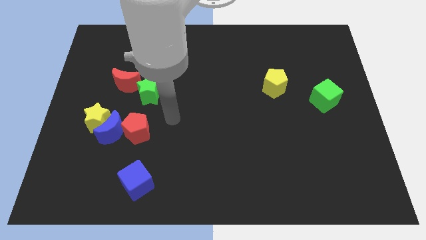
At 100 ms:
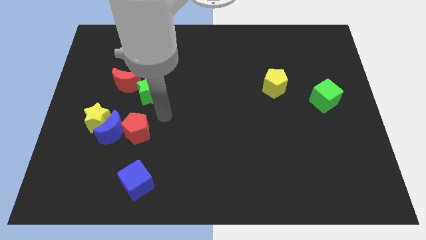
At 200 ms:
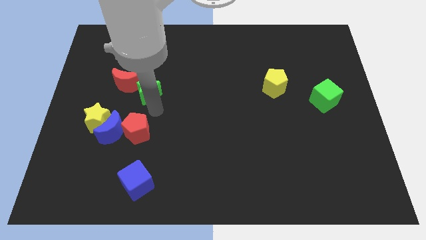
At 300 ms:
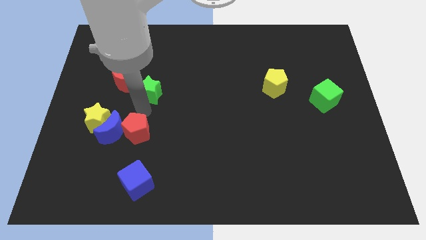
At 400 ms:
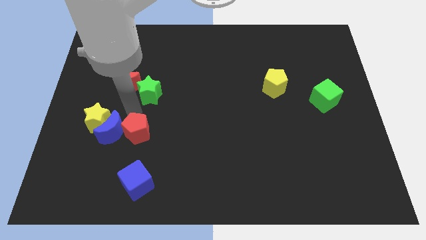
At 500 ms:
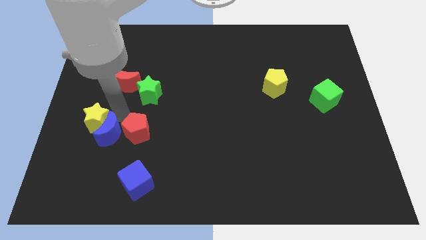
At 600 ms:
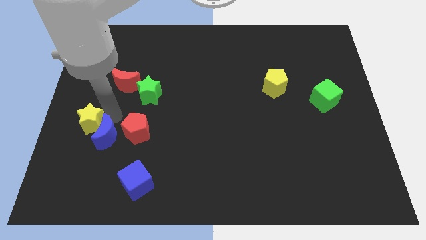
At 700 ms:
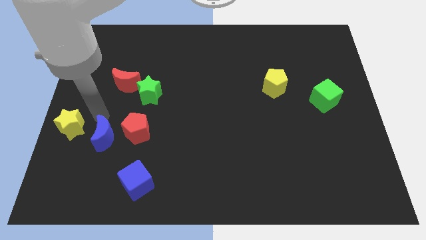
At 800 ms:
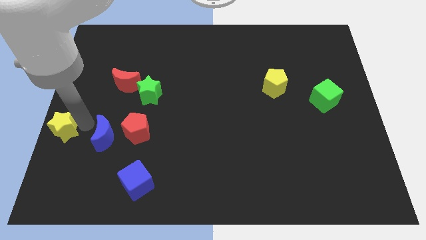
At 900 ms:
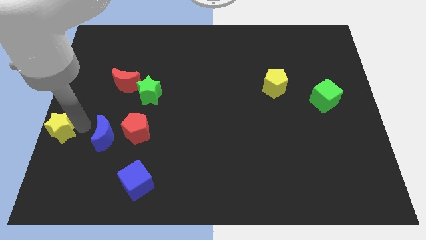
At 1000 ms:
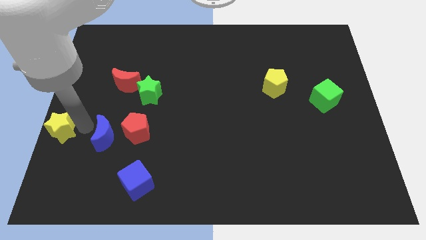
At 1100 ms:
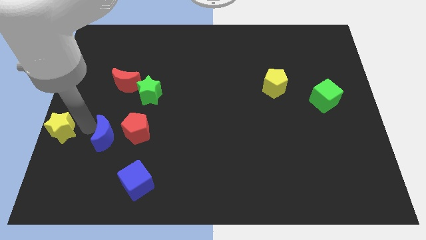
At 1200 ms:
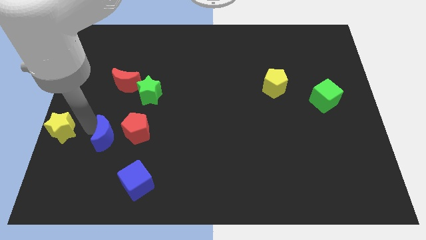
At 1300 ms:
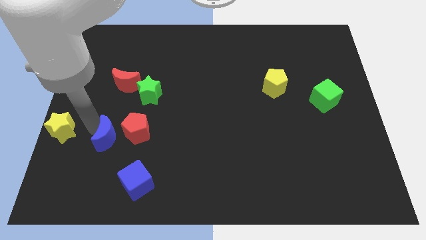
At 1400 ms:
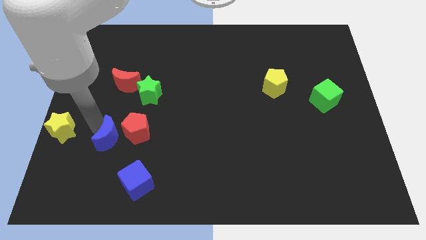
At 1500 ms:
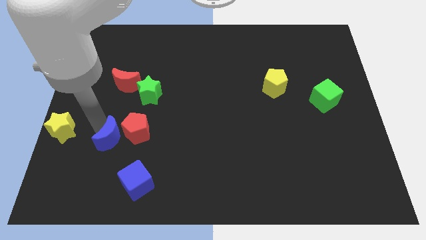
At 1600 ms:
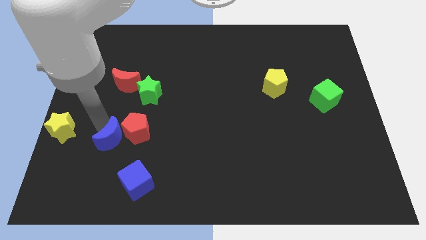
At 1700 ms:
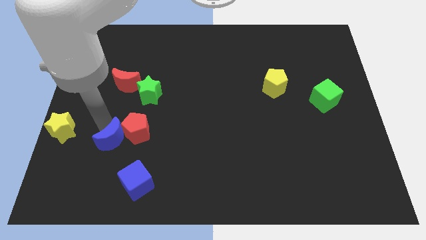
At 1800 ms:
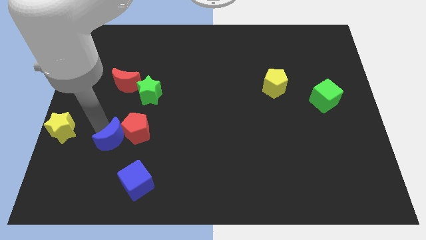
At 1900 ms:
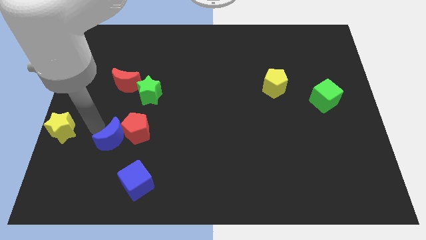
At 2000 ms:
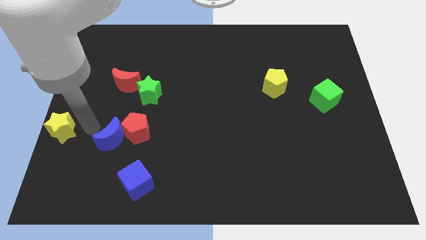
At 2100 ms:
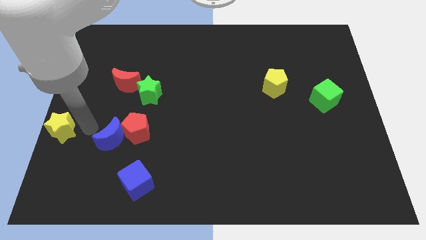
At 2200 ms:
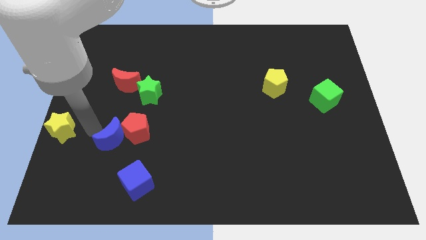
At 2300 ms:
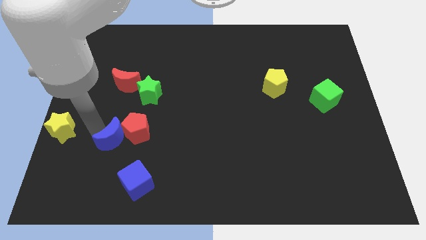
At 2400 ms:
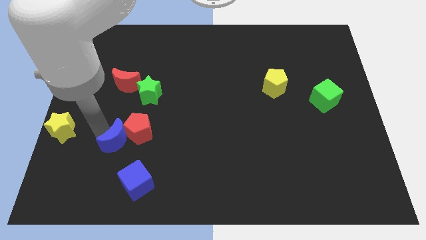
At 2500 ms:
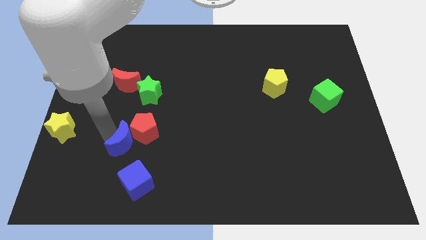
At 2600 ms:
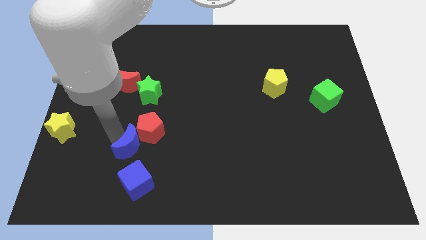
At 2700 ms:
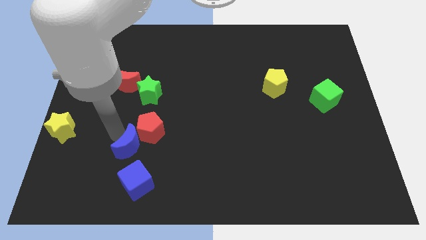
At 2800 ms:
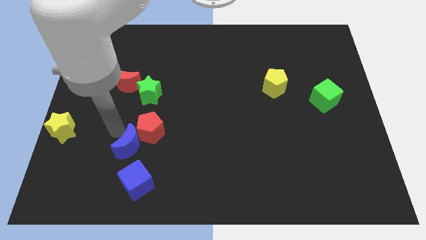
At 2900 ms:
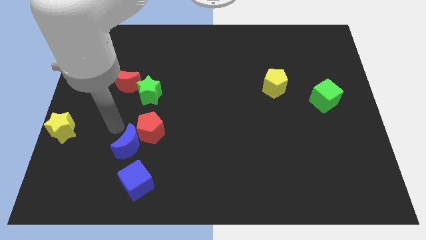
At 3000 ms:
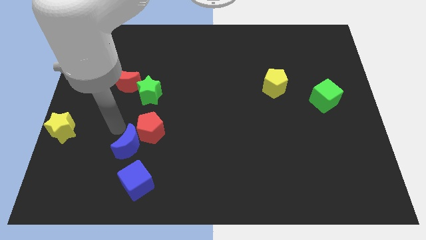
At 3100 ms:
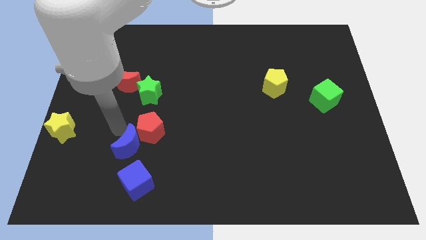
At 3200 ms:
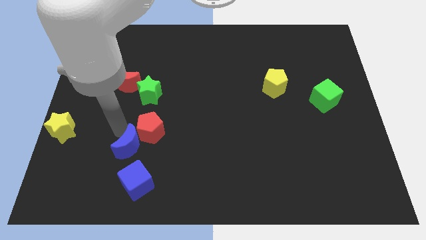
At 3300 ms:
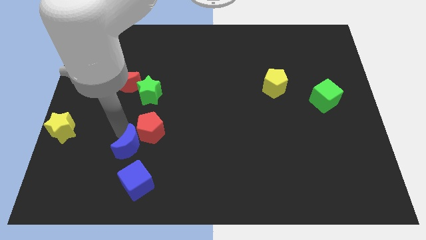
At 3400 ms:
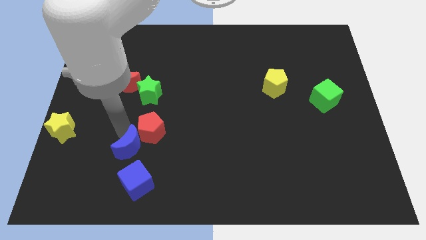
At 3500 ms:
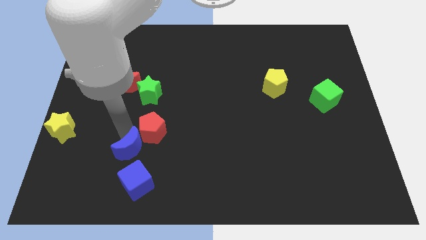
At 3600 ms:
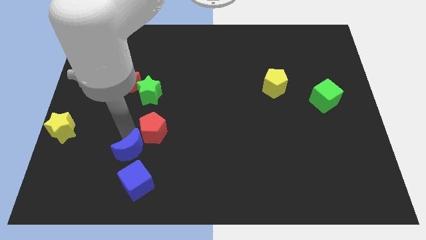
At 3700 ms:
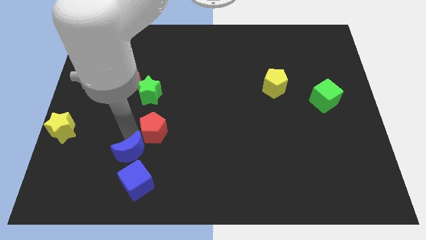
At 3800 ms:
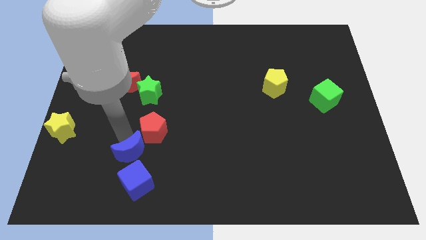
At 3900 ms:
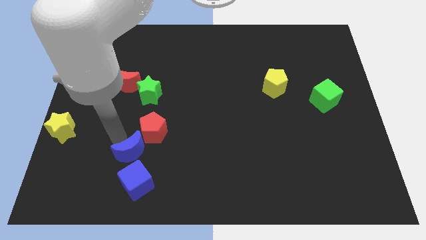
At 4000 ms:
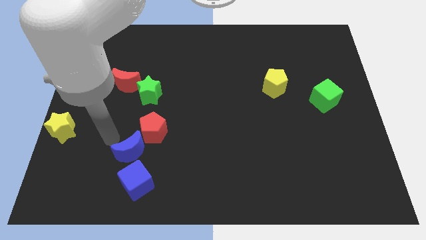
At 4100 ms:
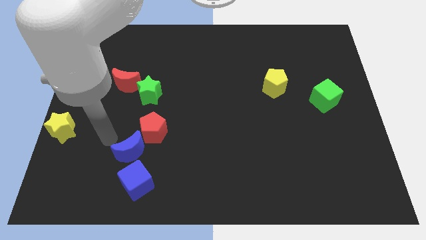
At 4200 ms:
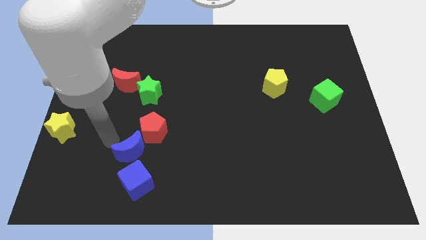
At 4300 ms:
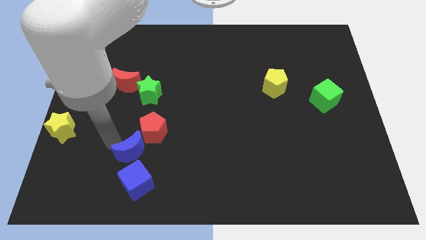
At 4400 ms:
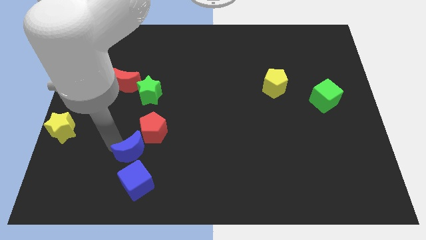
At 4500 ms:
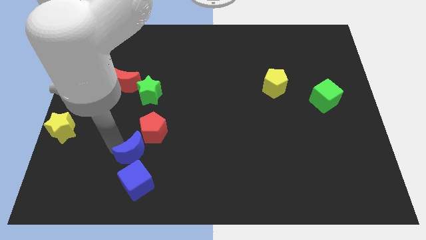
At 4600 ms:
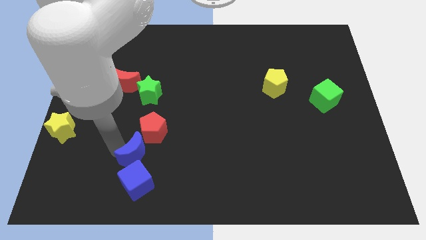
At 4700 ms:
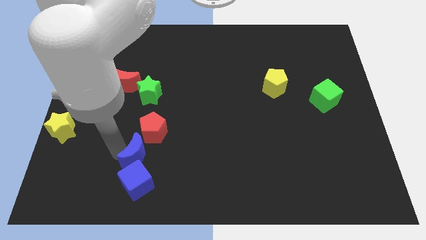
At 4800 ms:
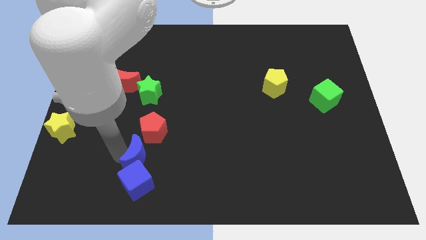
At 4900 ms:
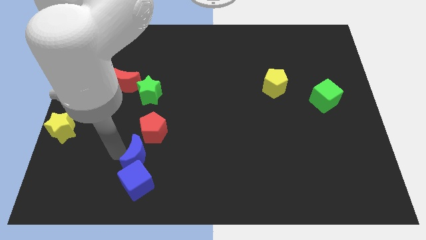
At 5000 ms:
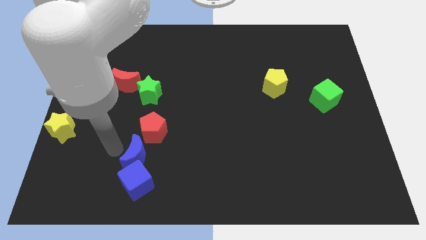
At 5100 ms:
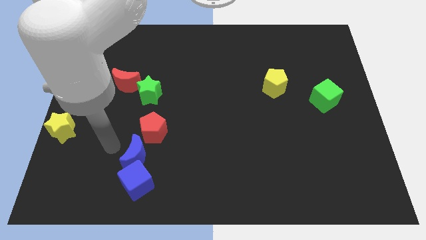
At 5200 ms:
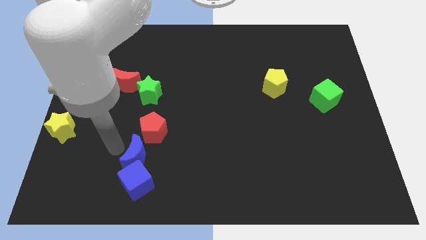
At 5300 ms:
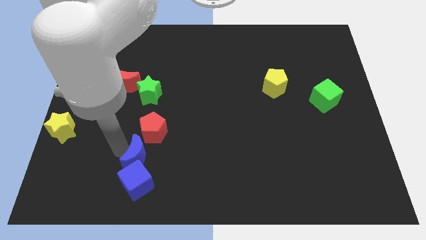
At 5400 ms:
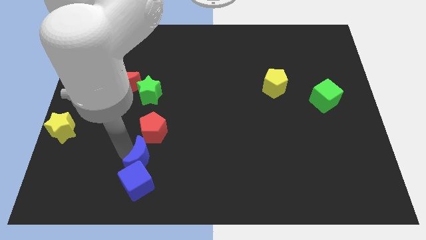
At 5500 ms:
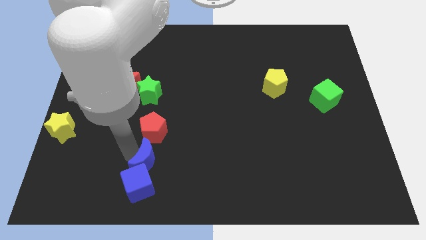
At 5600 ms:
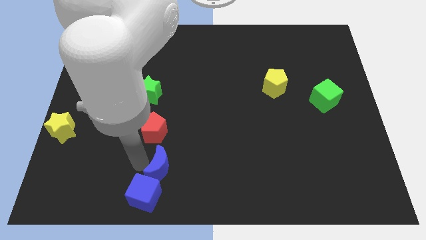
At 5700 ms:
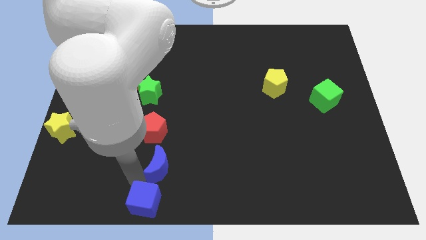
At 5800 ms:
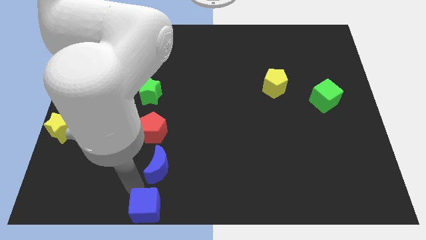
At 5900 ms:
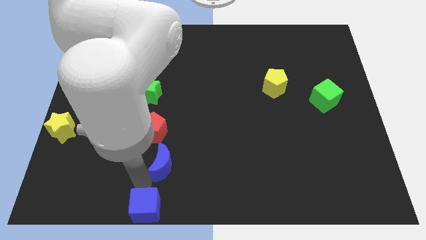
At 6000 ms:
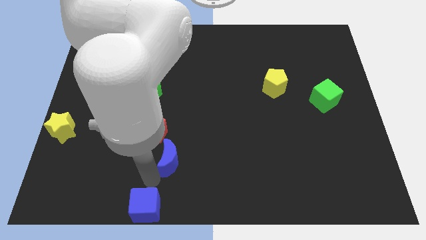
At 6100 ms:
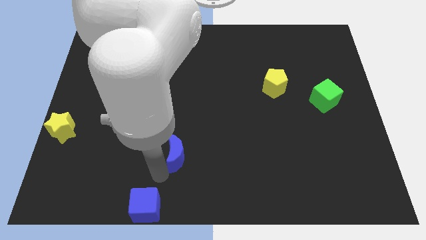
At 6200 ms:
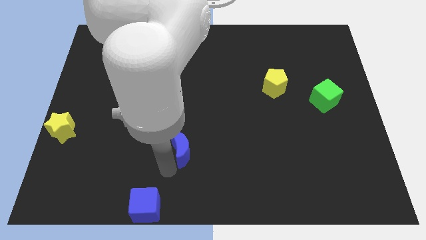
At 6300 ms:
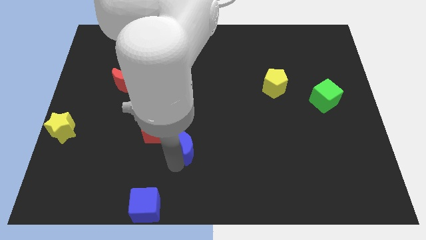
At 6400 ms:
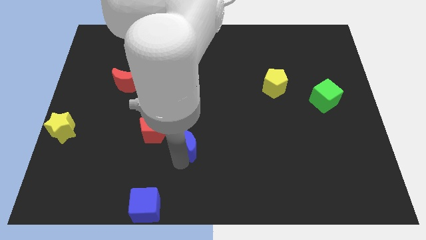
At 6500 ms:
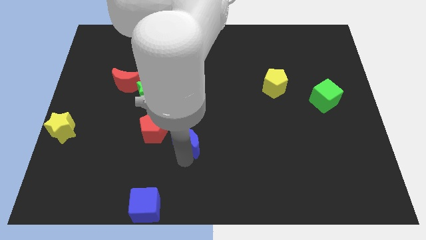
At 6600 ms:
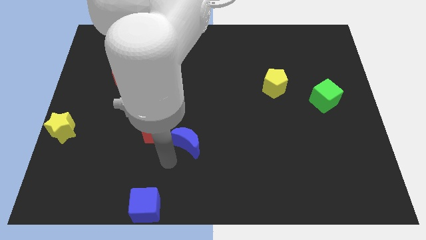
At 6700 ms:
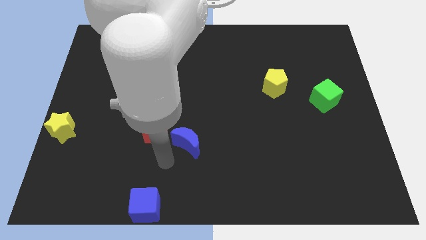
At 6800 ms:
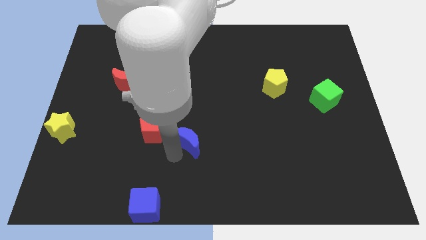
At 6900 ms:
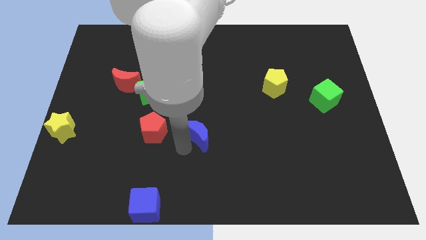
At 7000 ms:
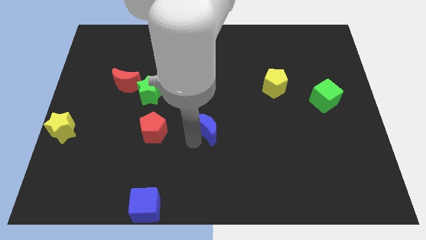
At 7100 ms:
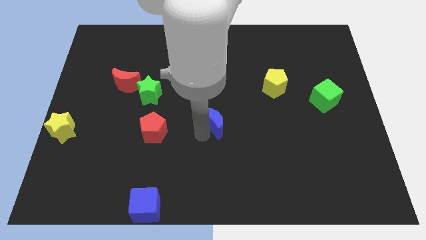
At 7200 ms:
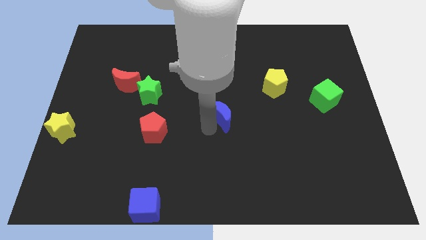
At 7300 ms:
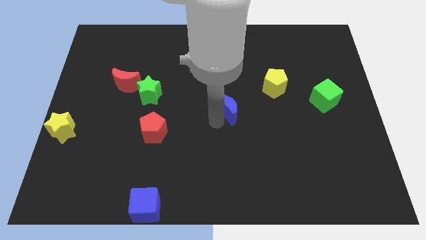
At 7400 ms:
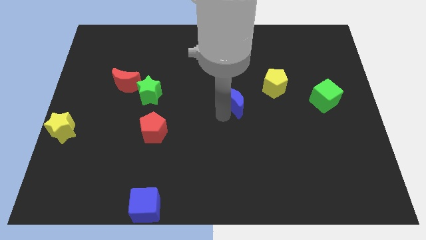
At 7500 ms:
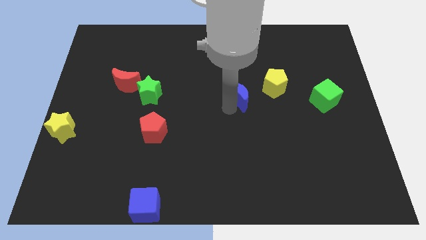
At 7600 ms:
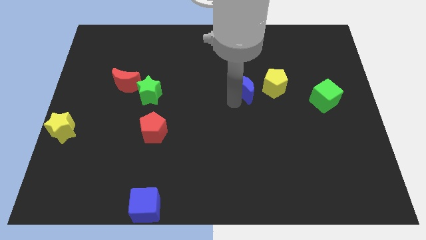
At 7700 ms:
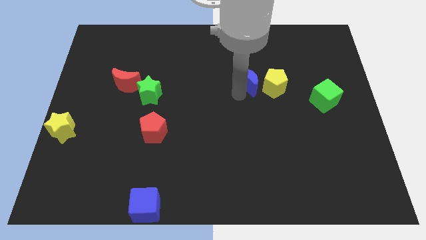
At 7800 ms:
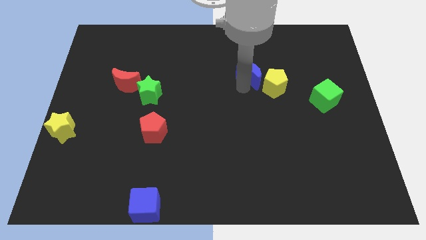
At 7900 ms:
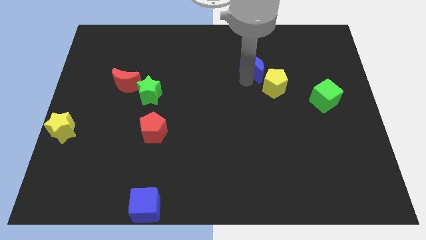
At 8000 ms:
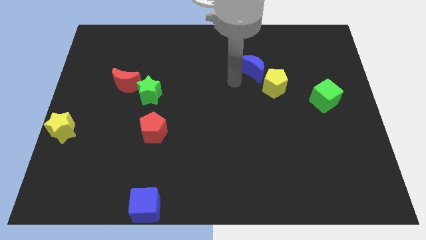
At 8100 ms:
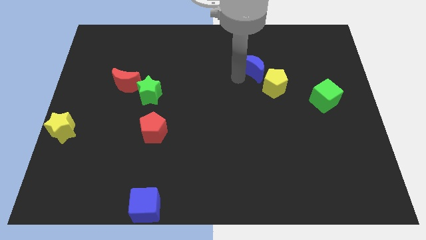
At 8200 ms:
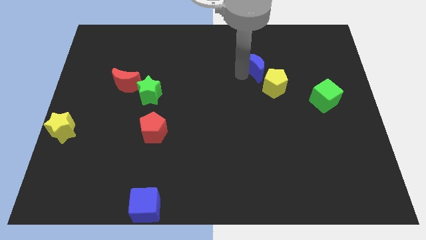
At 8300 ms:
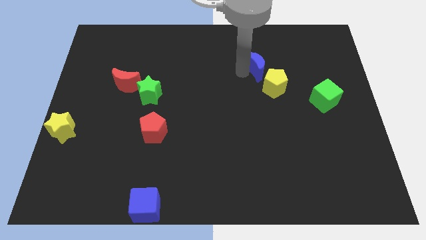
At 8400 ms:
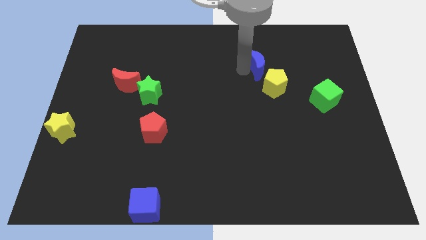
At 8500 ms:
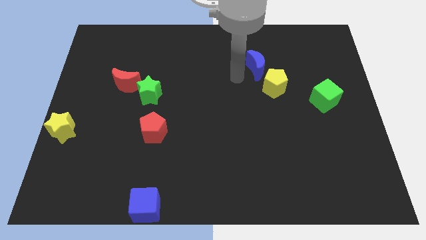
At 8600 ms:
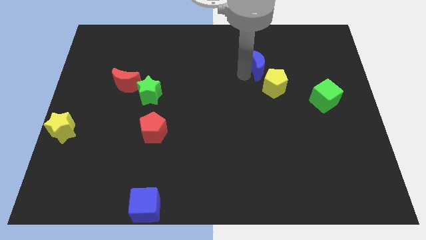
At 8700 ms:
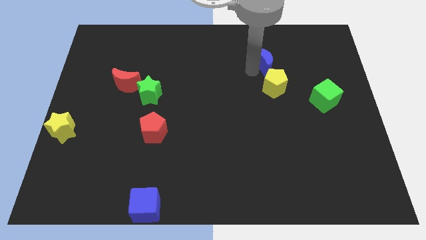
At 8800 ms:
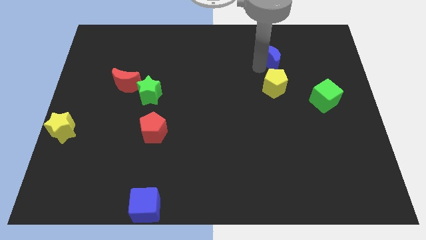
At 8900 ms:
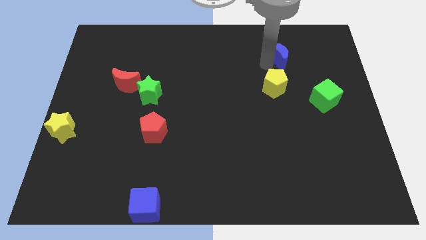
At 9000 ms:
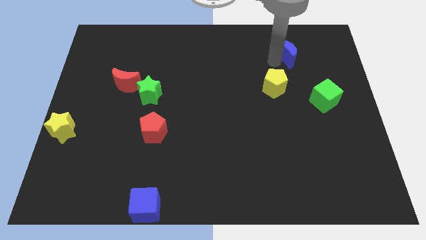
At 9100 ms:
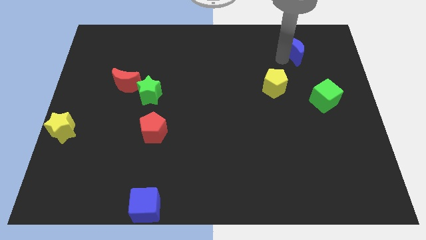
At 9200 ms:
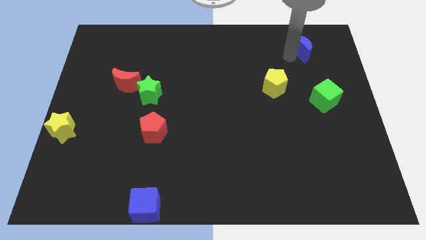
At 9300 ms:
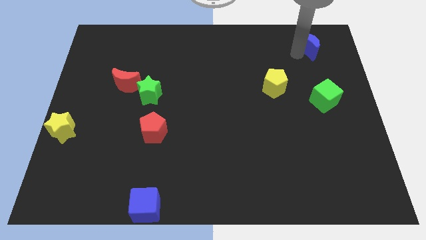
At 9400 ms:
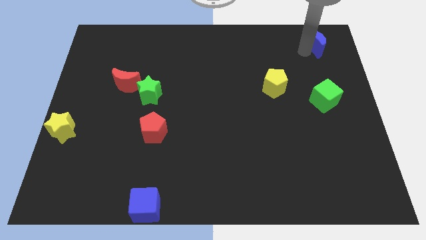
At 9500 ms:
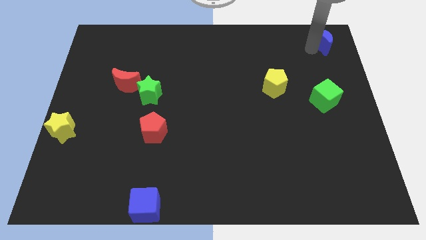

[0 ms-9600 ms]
move the blue moon to the top right of the board
